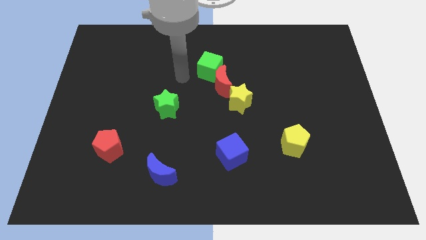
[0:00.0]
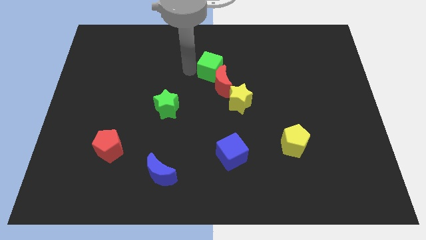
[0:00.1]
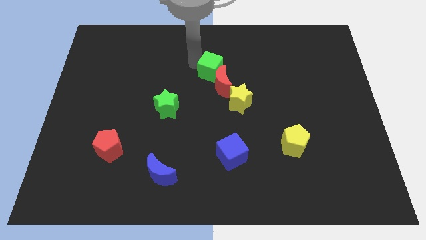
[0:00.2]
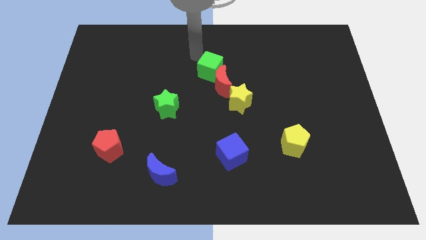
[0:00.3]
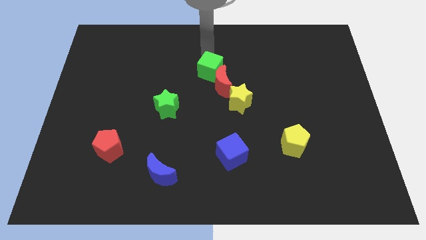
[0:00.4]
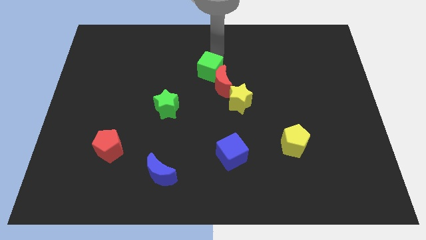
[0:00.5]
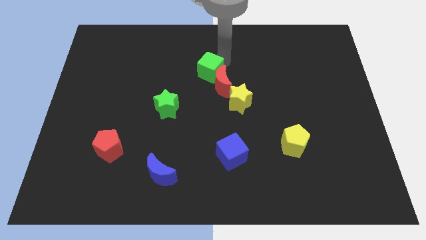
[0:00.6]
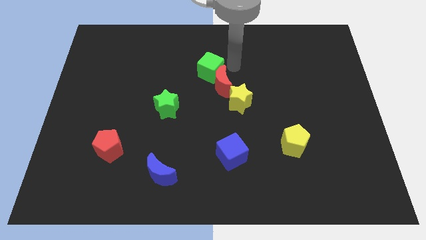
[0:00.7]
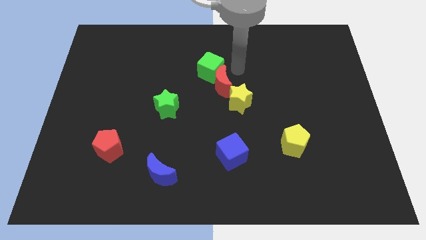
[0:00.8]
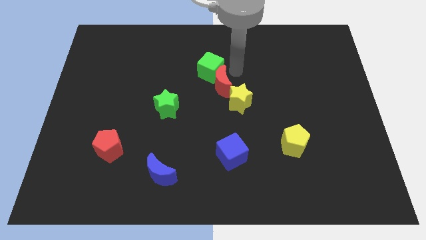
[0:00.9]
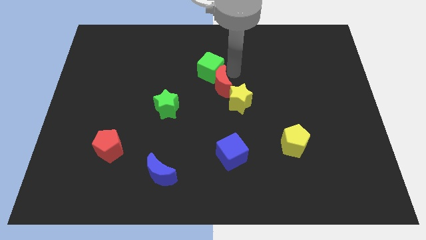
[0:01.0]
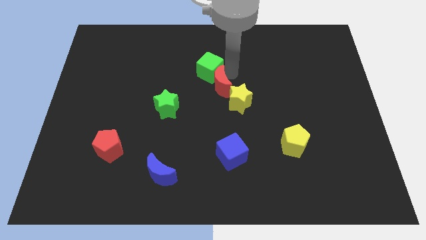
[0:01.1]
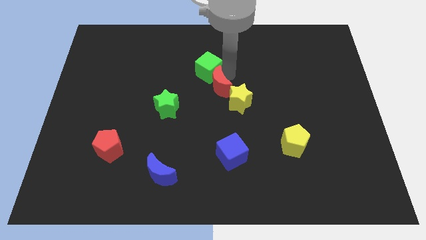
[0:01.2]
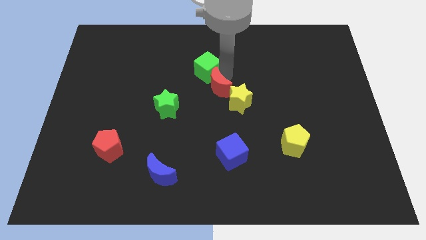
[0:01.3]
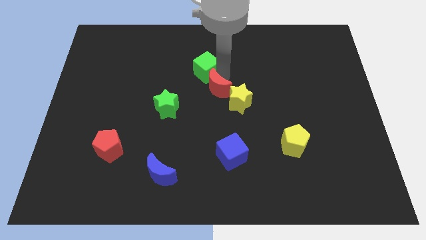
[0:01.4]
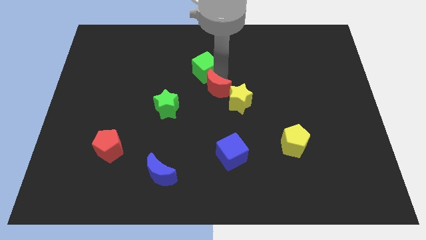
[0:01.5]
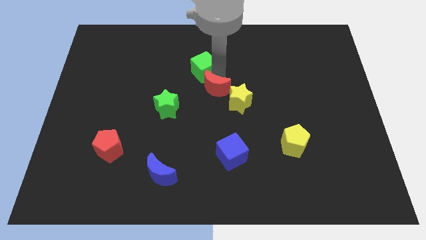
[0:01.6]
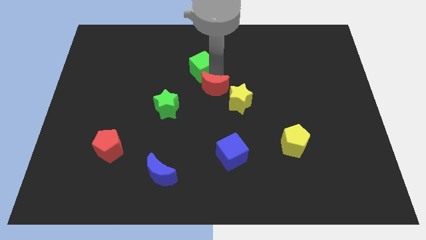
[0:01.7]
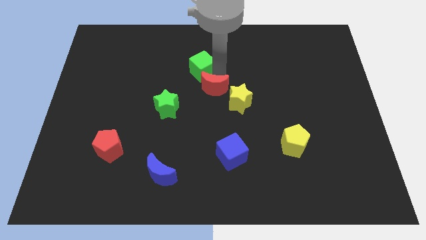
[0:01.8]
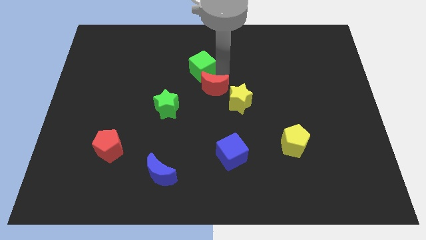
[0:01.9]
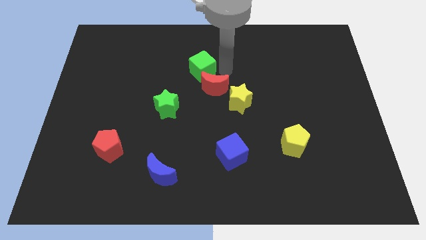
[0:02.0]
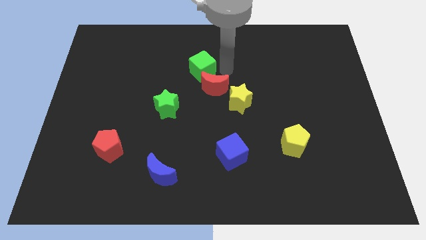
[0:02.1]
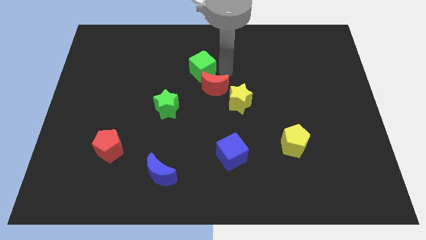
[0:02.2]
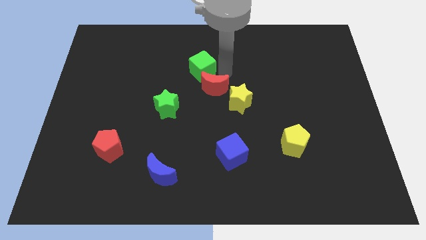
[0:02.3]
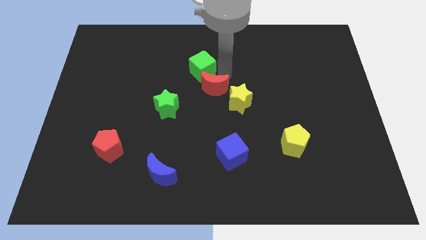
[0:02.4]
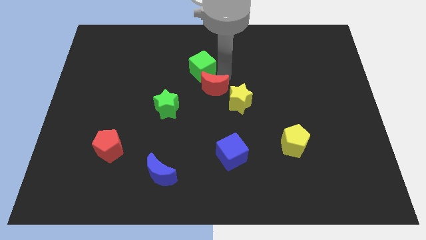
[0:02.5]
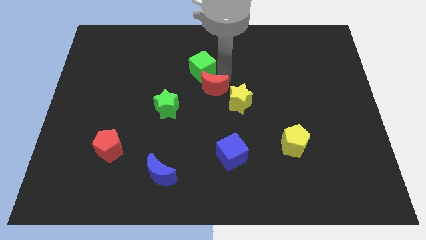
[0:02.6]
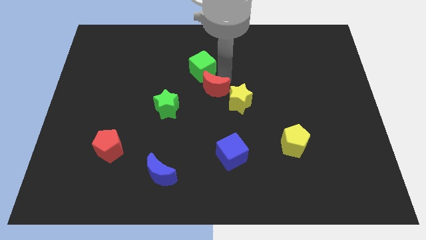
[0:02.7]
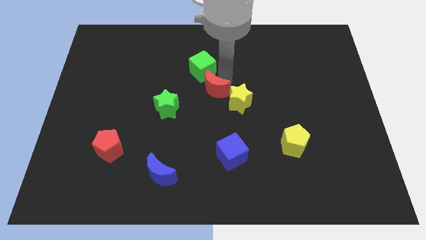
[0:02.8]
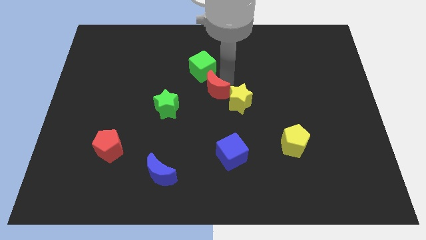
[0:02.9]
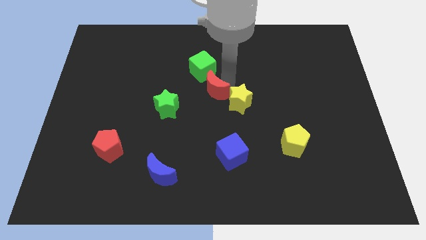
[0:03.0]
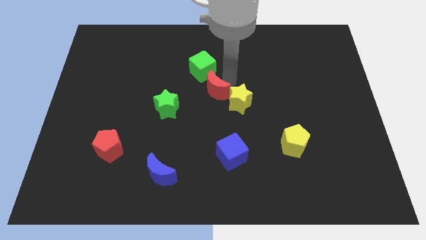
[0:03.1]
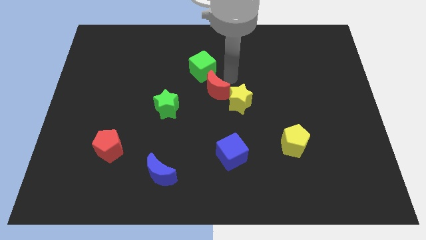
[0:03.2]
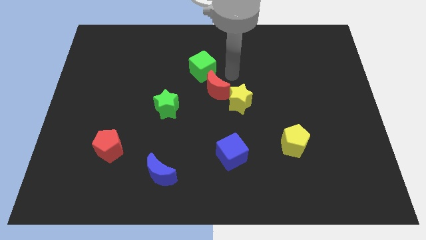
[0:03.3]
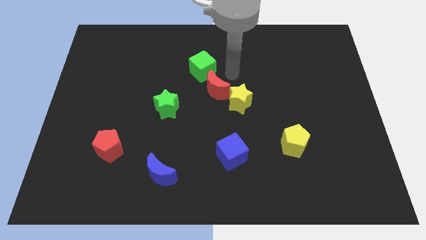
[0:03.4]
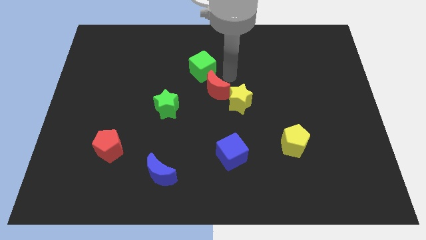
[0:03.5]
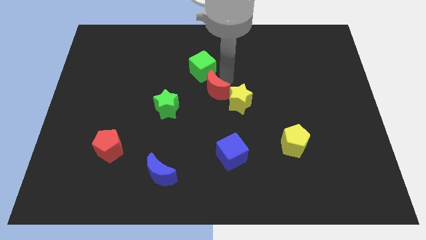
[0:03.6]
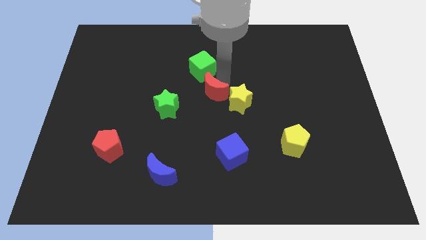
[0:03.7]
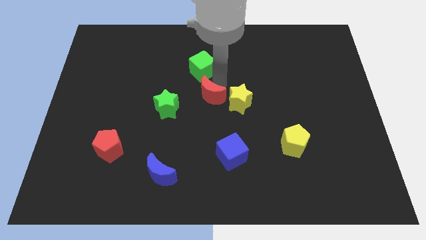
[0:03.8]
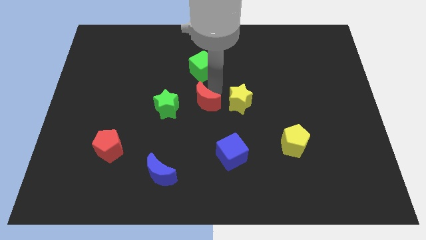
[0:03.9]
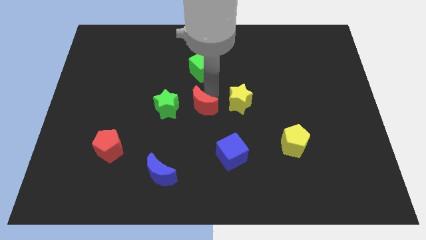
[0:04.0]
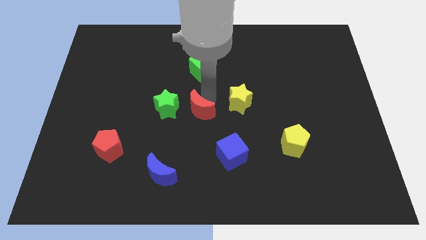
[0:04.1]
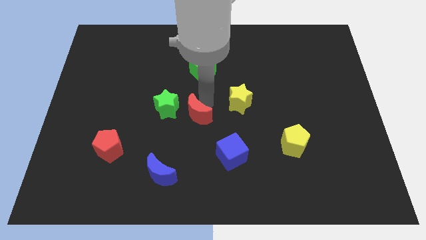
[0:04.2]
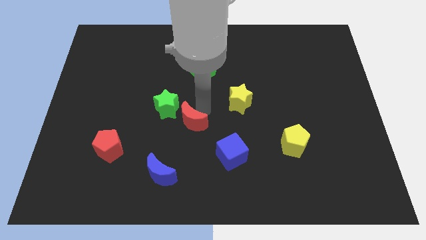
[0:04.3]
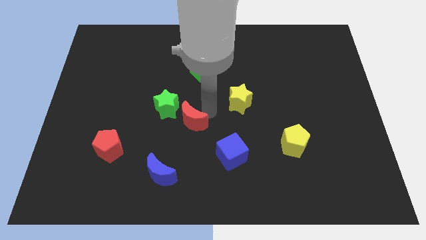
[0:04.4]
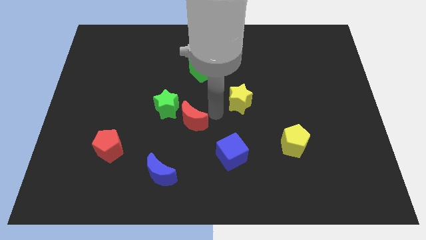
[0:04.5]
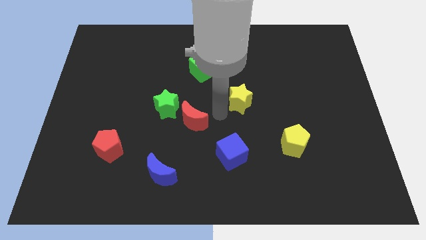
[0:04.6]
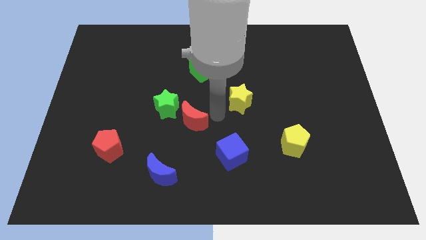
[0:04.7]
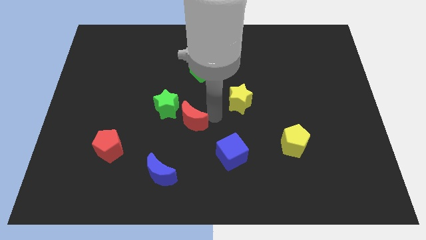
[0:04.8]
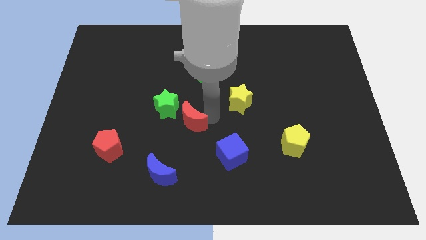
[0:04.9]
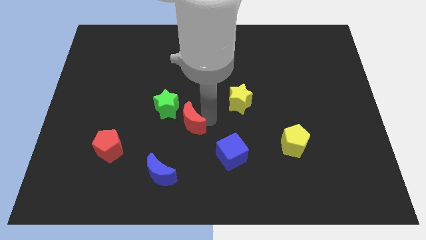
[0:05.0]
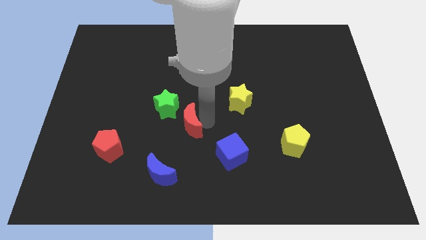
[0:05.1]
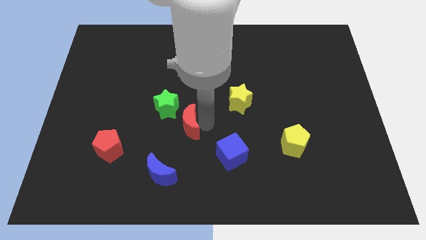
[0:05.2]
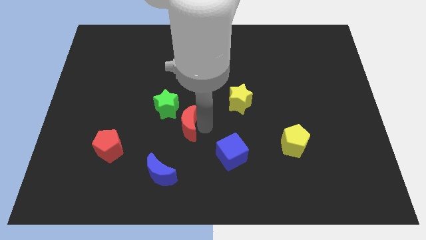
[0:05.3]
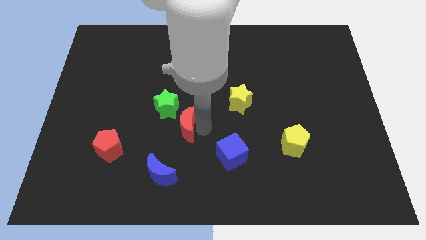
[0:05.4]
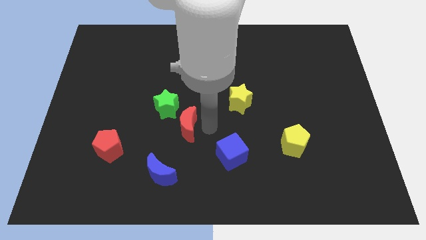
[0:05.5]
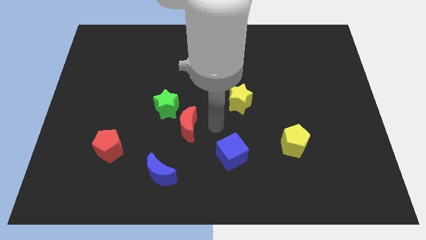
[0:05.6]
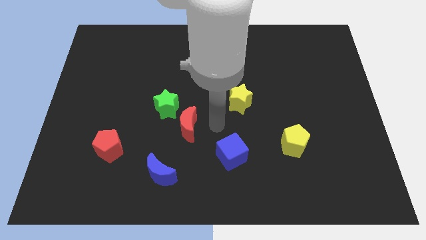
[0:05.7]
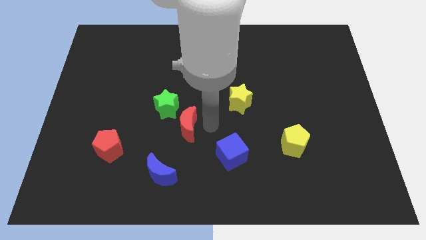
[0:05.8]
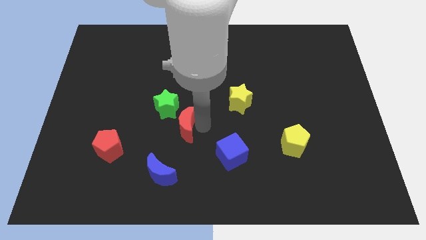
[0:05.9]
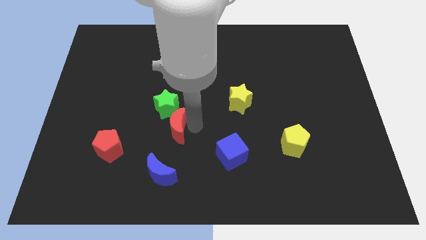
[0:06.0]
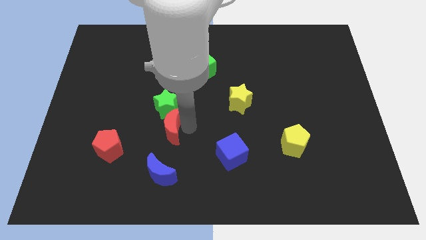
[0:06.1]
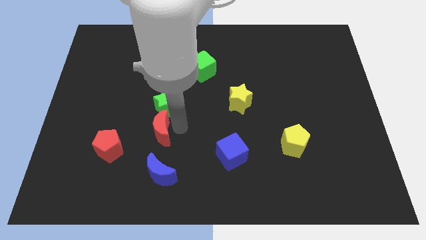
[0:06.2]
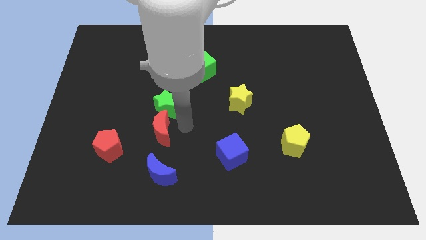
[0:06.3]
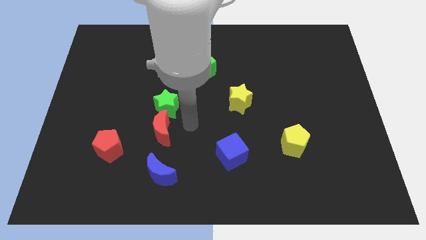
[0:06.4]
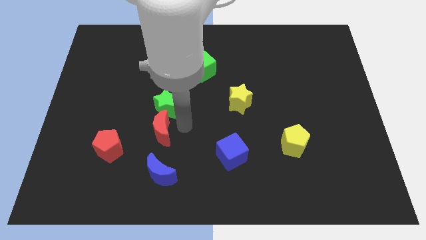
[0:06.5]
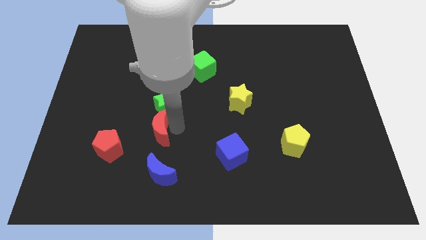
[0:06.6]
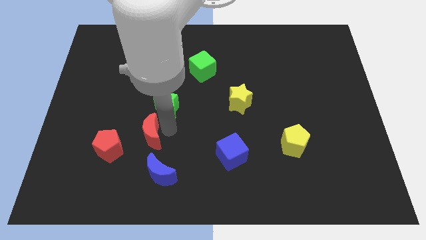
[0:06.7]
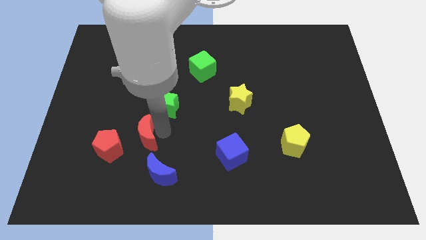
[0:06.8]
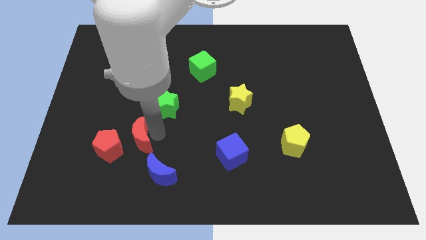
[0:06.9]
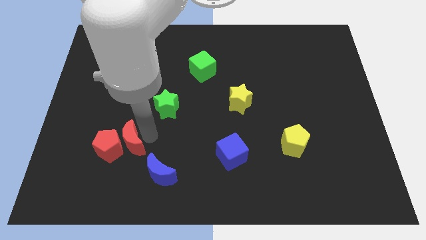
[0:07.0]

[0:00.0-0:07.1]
put the red moon close to the red pentagon

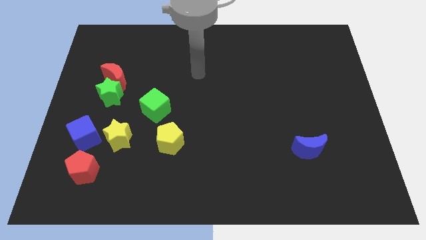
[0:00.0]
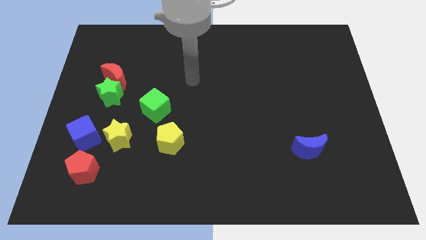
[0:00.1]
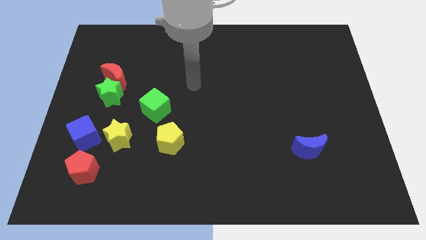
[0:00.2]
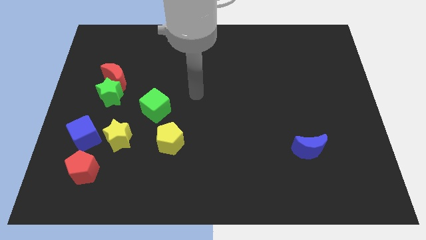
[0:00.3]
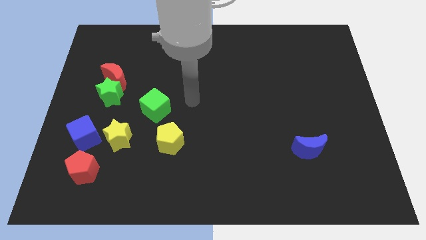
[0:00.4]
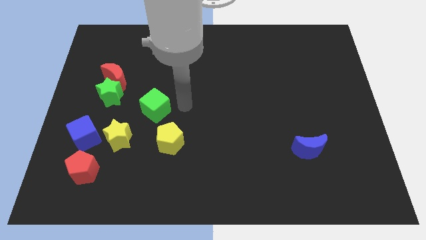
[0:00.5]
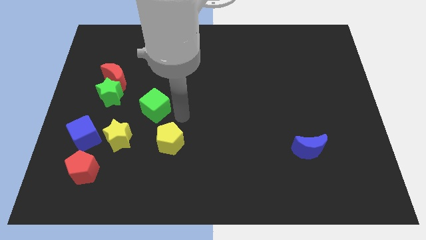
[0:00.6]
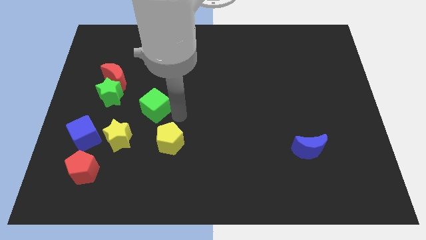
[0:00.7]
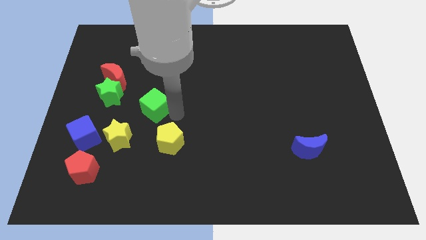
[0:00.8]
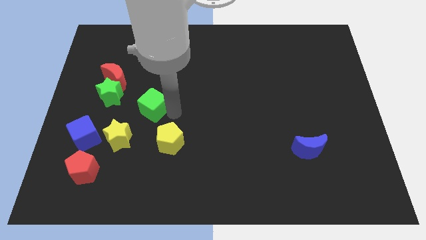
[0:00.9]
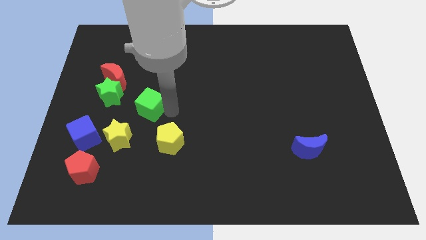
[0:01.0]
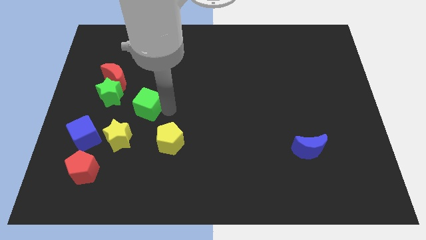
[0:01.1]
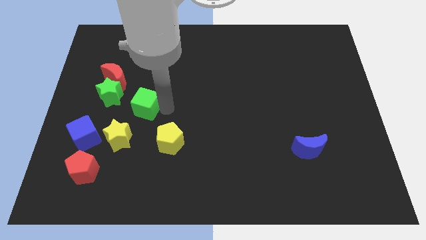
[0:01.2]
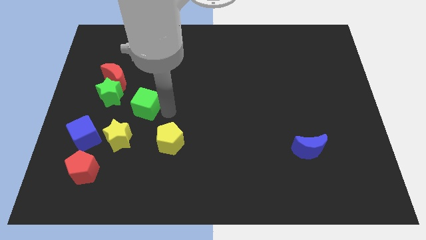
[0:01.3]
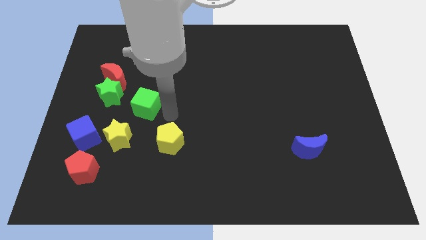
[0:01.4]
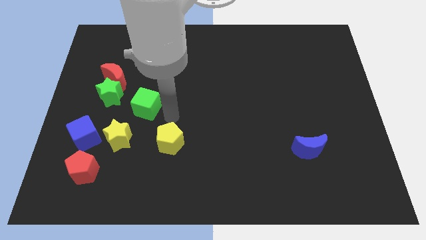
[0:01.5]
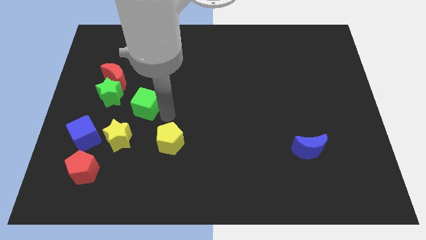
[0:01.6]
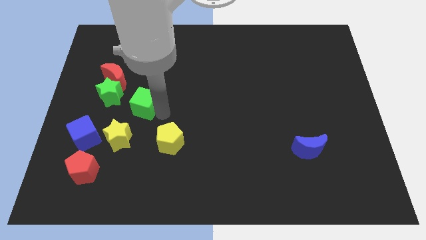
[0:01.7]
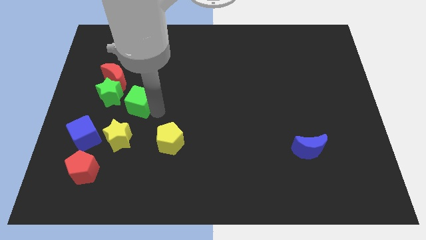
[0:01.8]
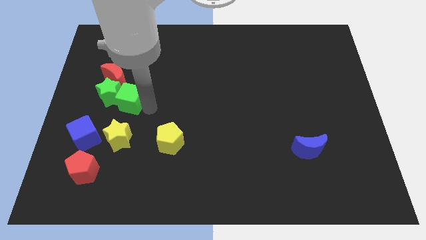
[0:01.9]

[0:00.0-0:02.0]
put the green cube towards the green star
